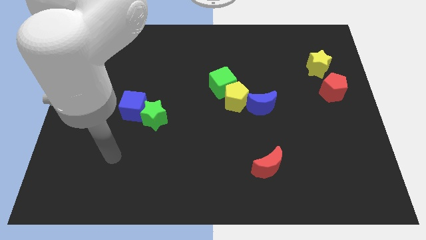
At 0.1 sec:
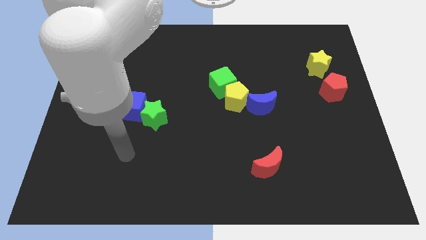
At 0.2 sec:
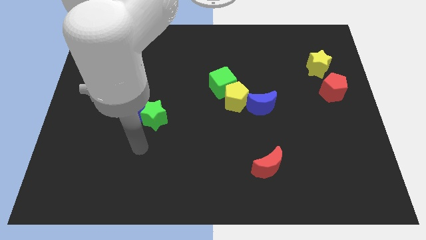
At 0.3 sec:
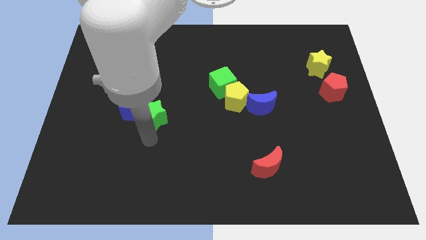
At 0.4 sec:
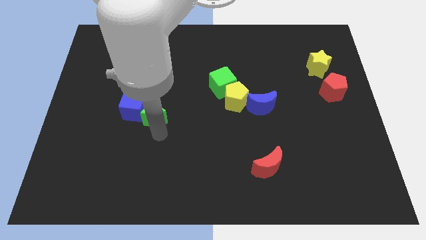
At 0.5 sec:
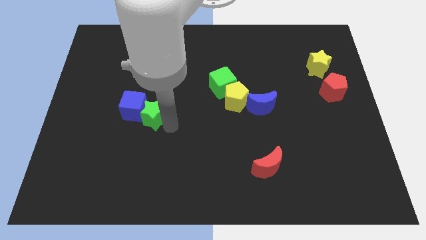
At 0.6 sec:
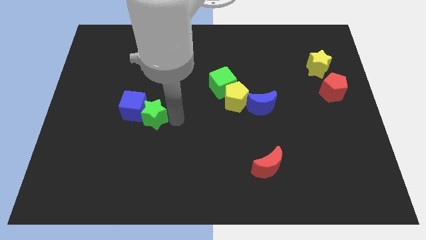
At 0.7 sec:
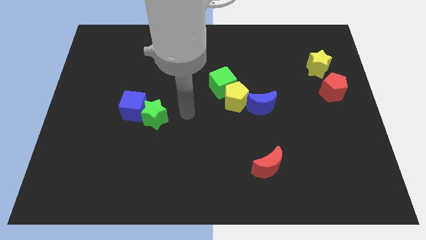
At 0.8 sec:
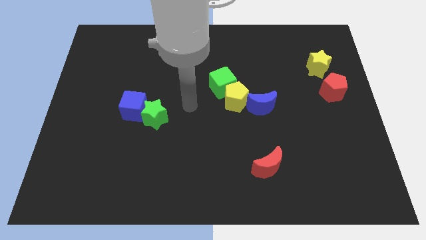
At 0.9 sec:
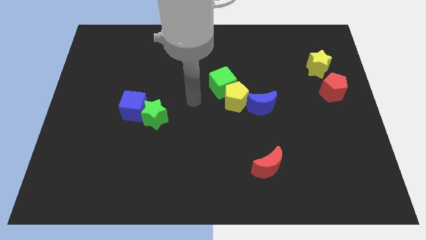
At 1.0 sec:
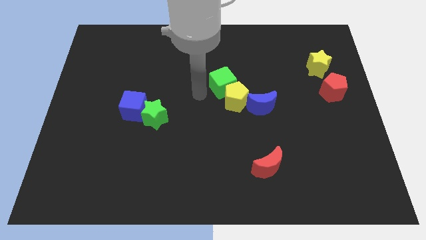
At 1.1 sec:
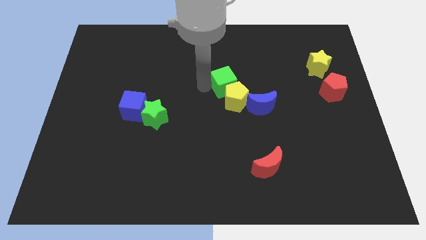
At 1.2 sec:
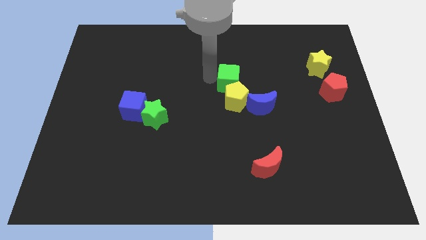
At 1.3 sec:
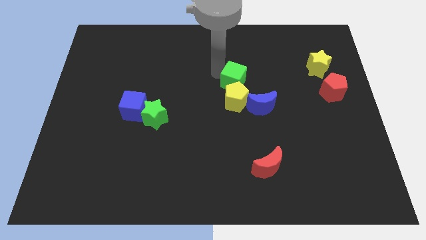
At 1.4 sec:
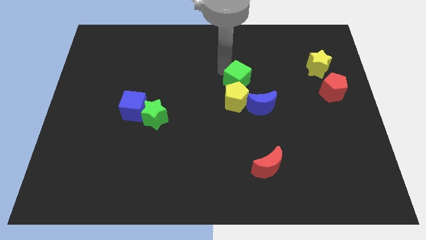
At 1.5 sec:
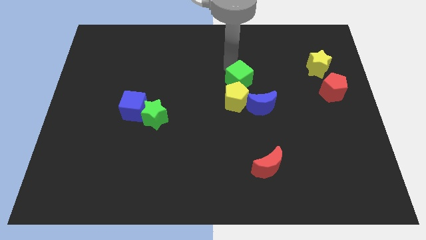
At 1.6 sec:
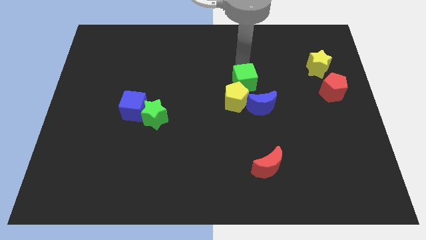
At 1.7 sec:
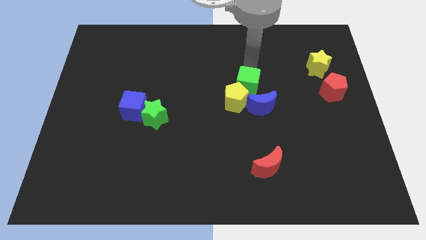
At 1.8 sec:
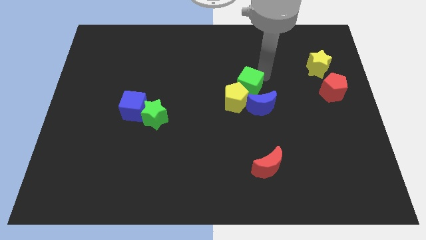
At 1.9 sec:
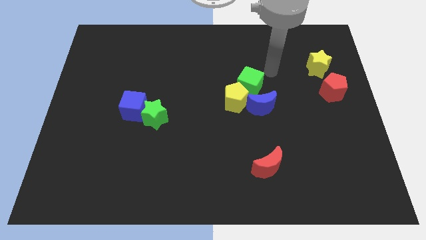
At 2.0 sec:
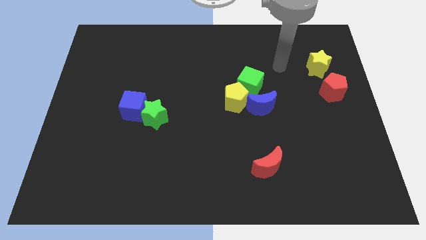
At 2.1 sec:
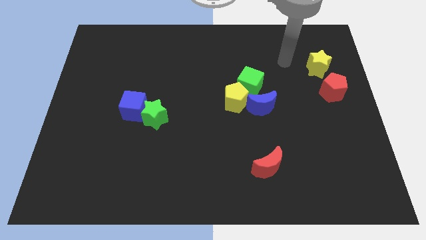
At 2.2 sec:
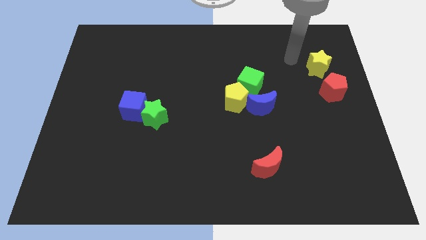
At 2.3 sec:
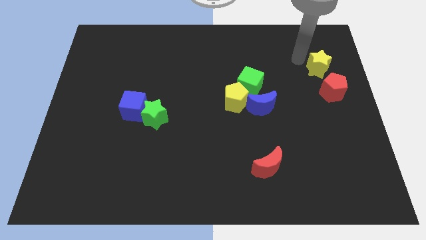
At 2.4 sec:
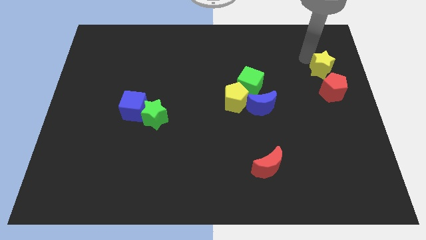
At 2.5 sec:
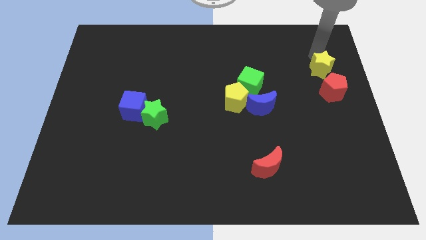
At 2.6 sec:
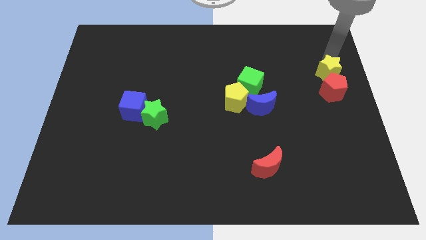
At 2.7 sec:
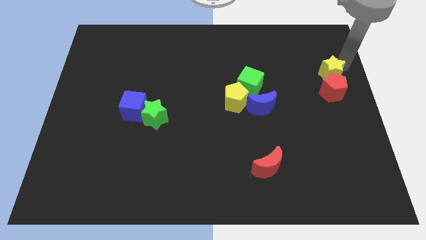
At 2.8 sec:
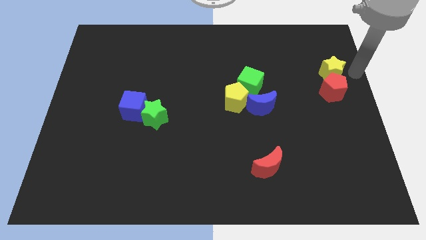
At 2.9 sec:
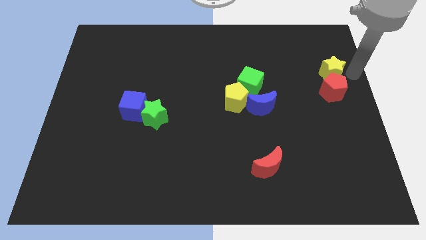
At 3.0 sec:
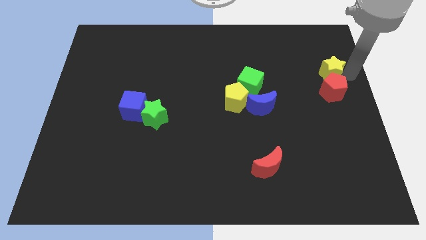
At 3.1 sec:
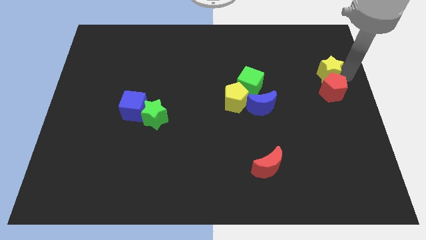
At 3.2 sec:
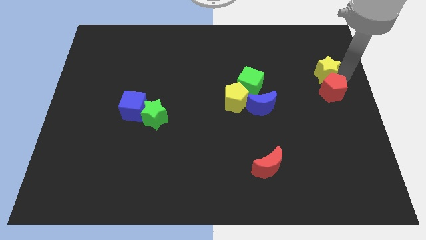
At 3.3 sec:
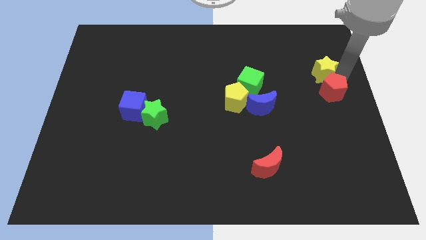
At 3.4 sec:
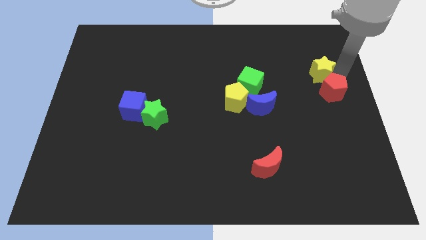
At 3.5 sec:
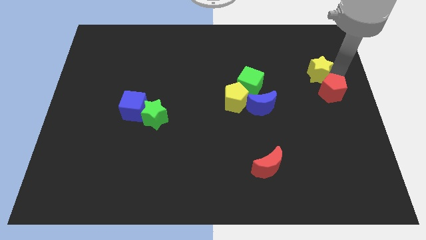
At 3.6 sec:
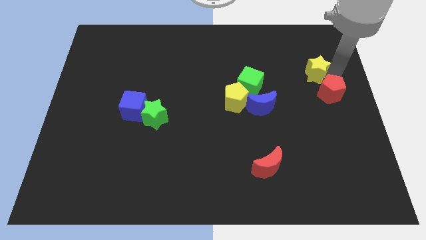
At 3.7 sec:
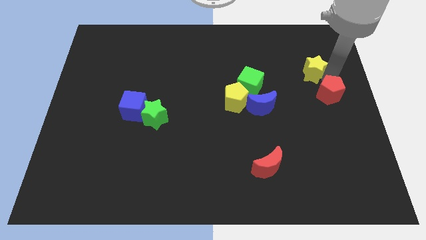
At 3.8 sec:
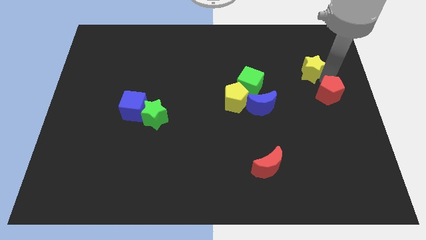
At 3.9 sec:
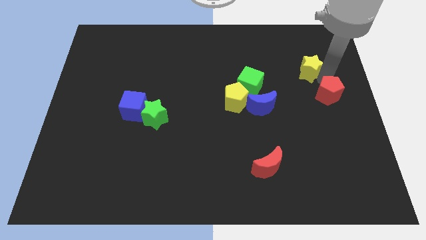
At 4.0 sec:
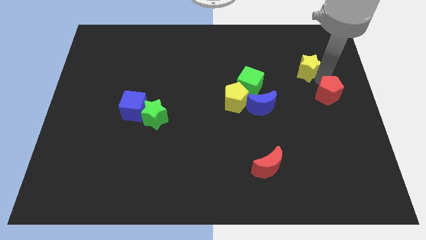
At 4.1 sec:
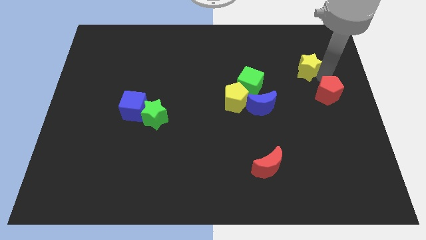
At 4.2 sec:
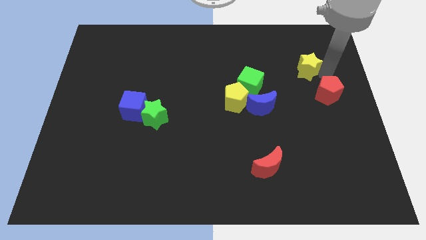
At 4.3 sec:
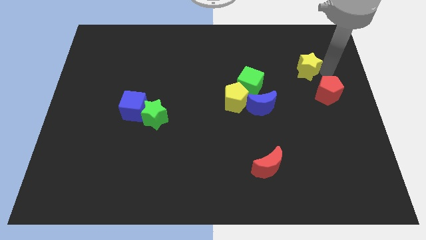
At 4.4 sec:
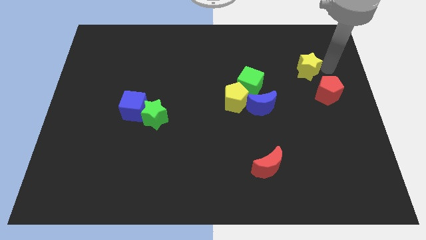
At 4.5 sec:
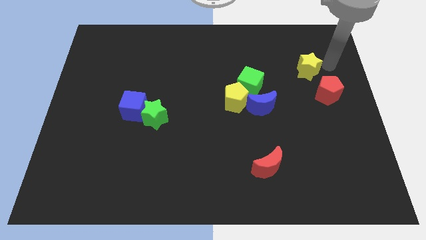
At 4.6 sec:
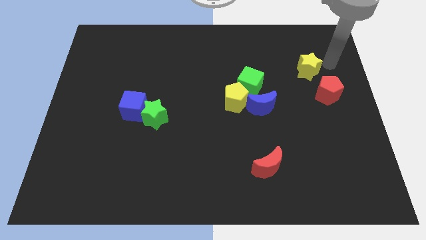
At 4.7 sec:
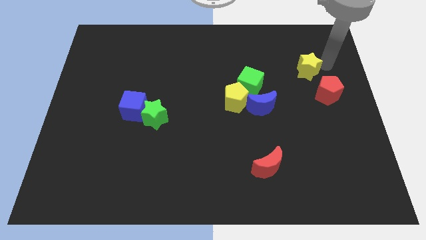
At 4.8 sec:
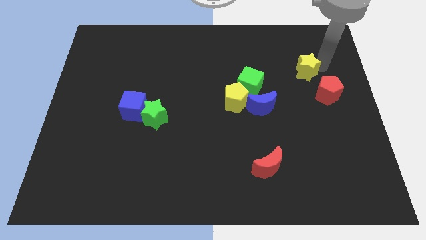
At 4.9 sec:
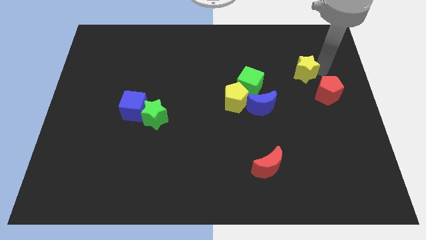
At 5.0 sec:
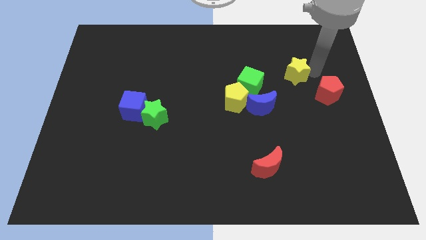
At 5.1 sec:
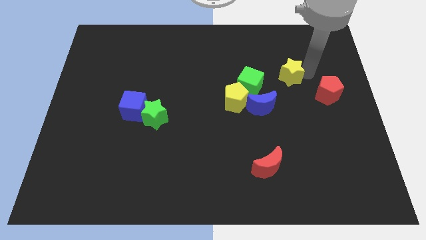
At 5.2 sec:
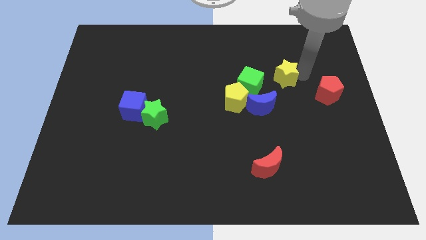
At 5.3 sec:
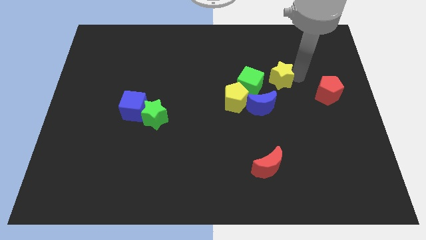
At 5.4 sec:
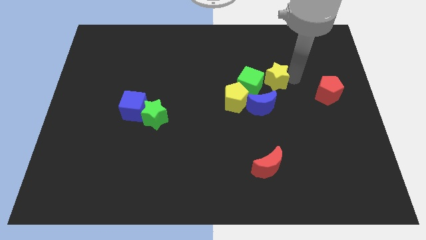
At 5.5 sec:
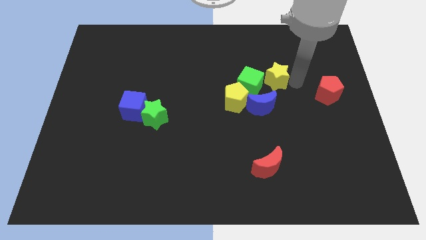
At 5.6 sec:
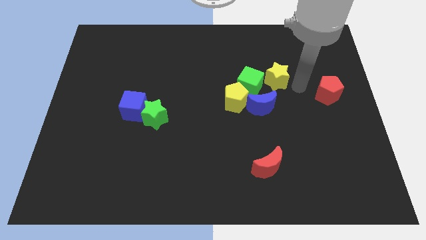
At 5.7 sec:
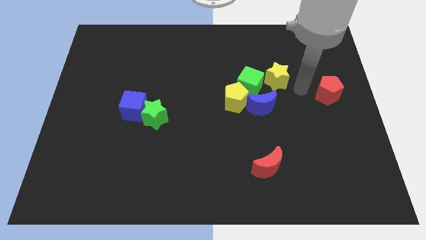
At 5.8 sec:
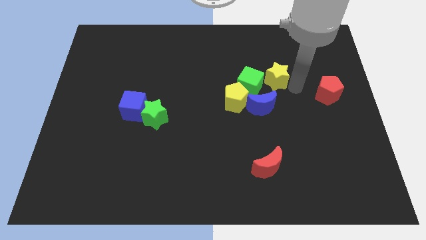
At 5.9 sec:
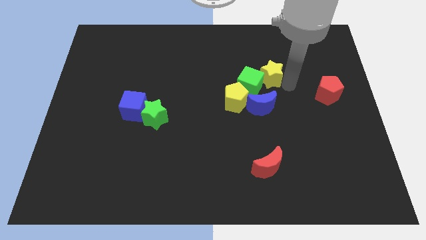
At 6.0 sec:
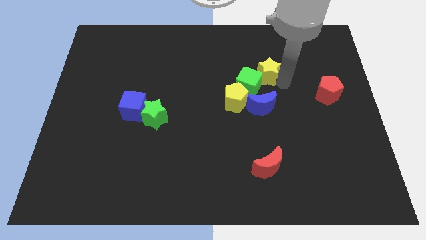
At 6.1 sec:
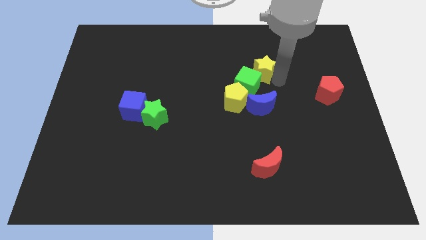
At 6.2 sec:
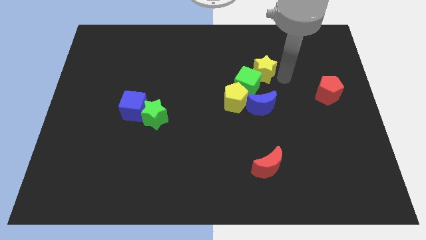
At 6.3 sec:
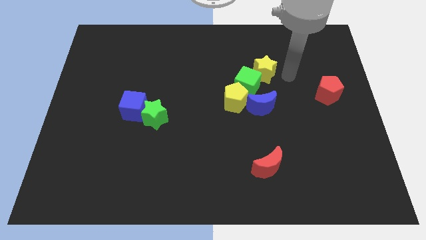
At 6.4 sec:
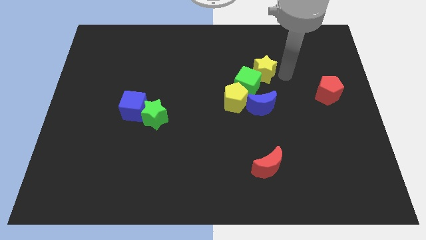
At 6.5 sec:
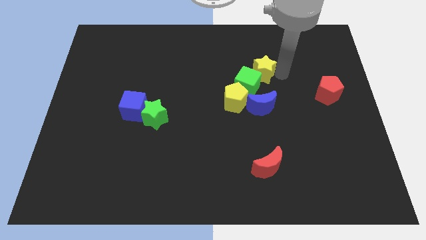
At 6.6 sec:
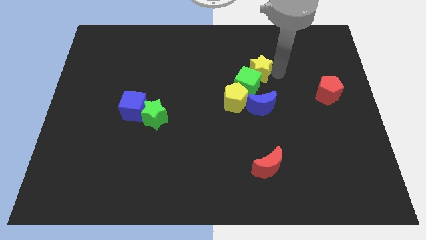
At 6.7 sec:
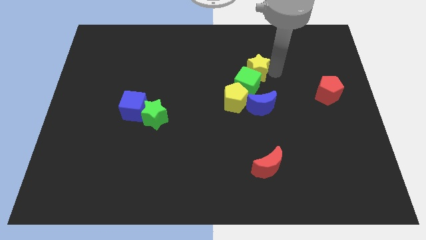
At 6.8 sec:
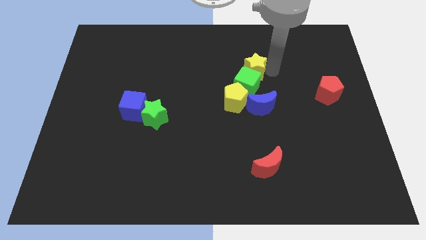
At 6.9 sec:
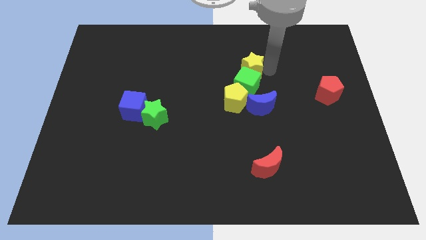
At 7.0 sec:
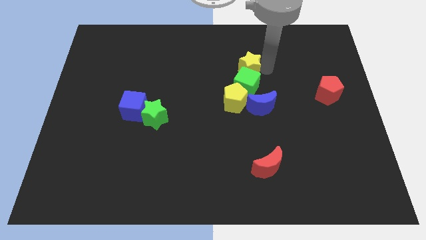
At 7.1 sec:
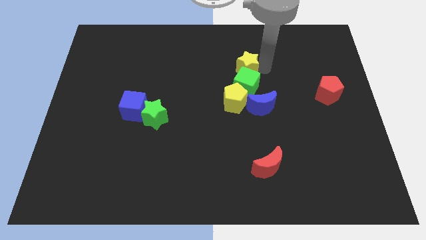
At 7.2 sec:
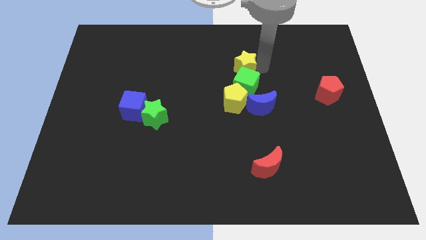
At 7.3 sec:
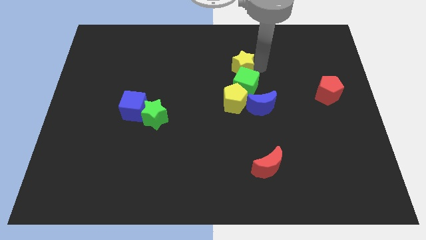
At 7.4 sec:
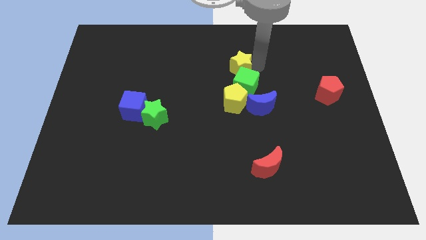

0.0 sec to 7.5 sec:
slide the yellow star left

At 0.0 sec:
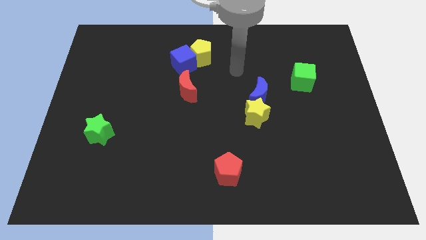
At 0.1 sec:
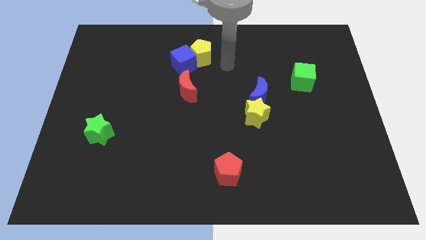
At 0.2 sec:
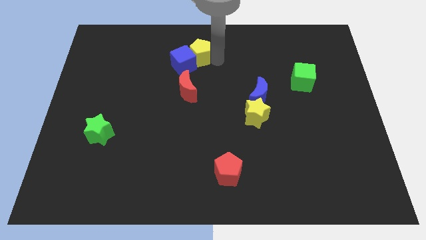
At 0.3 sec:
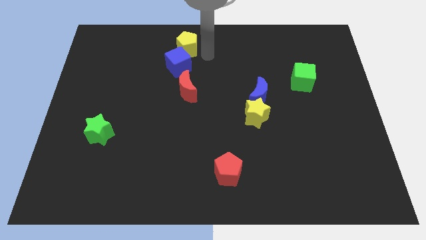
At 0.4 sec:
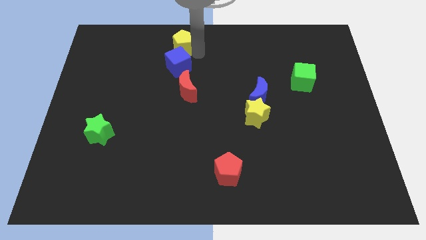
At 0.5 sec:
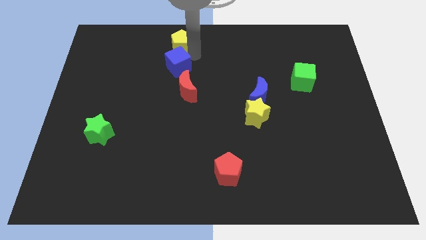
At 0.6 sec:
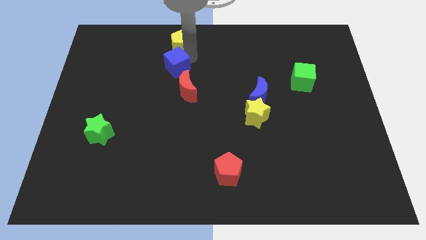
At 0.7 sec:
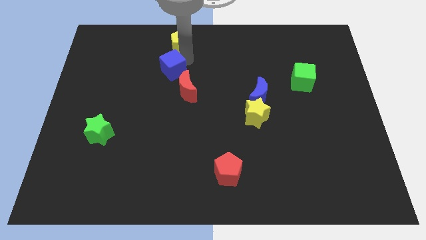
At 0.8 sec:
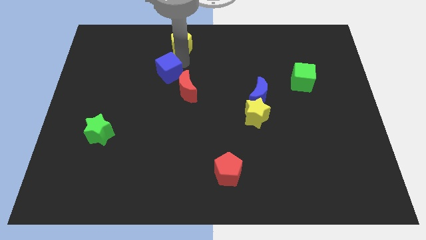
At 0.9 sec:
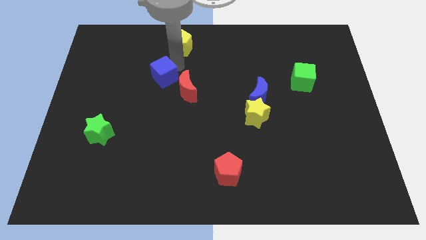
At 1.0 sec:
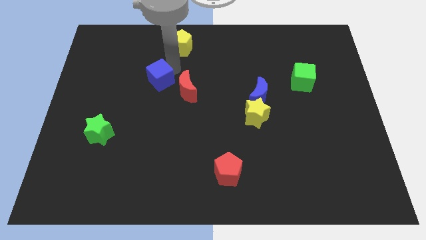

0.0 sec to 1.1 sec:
slightly move the blue cube downwards and to the left
